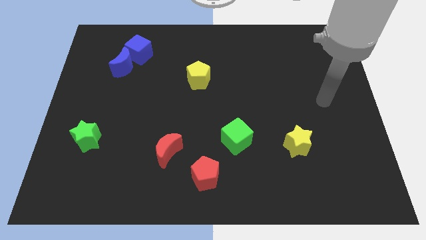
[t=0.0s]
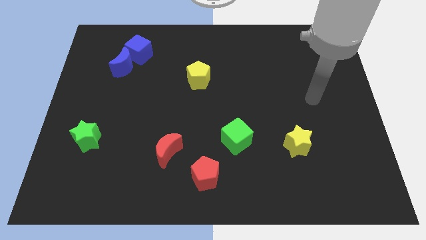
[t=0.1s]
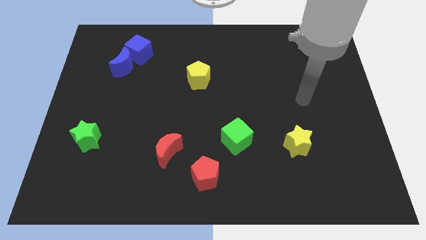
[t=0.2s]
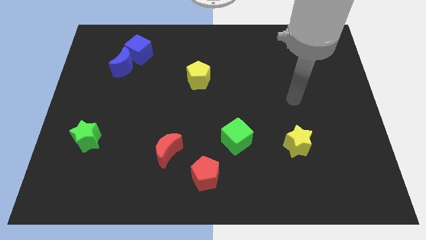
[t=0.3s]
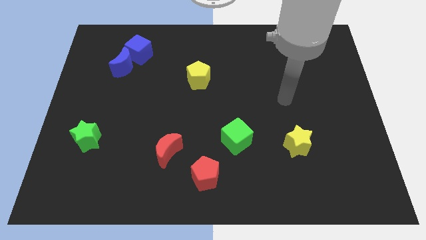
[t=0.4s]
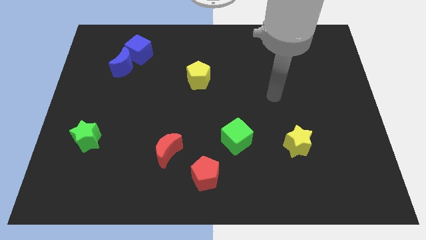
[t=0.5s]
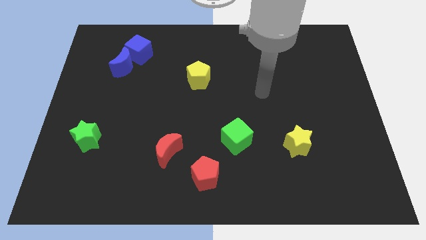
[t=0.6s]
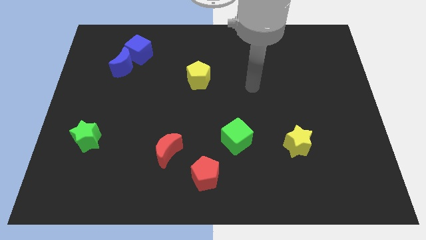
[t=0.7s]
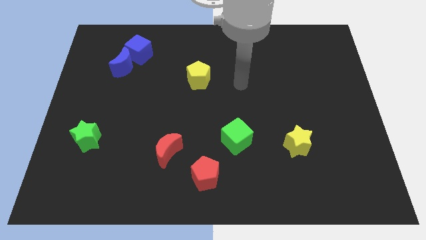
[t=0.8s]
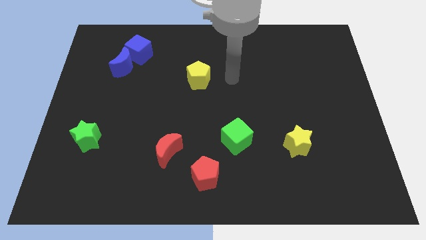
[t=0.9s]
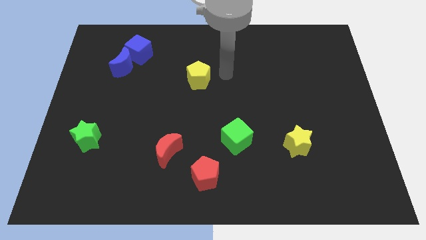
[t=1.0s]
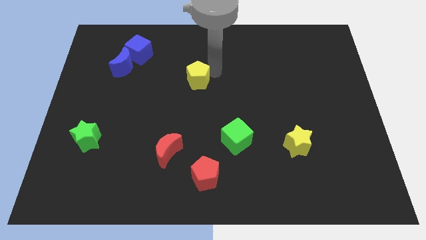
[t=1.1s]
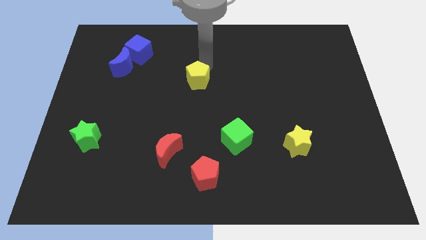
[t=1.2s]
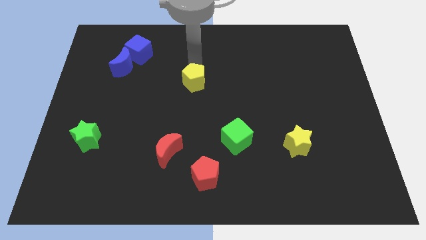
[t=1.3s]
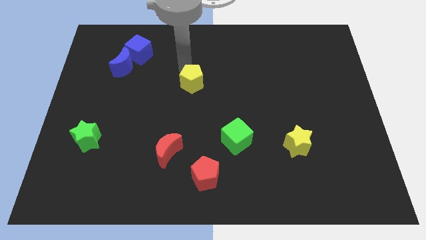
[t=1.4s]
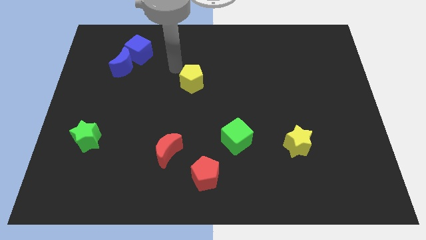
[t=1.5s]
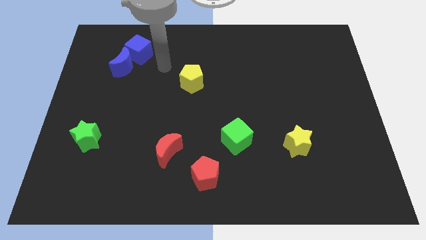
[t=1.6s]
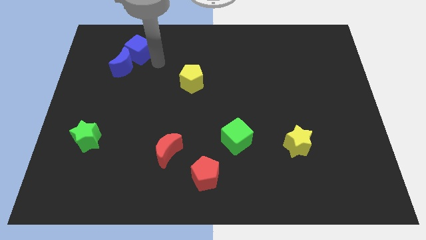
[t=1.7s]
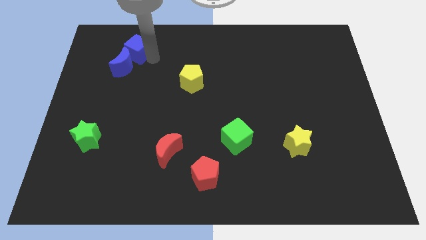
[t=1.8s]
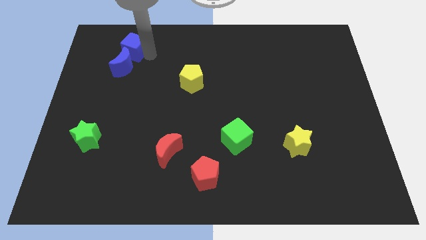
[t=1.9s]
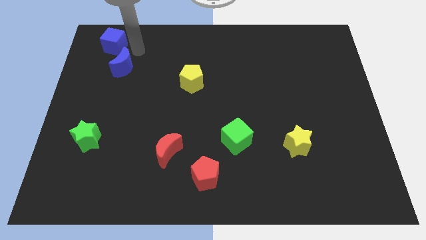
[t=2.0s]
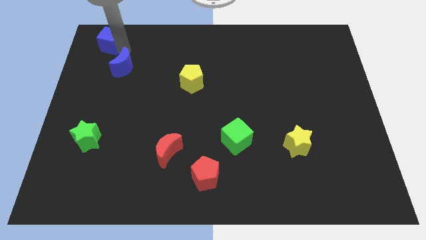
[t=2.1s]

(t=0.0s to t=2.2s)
separate the blue moon from the blue cube

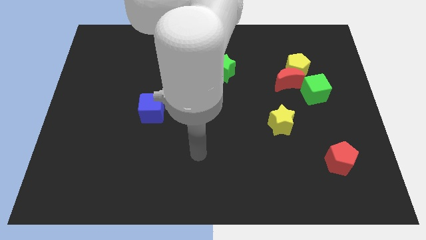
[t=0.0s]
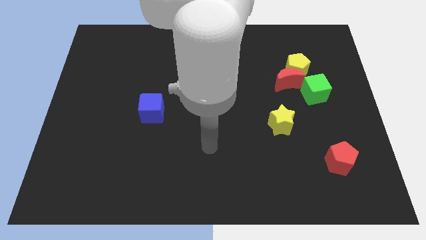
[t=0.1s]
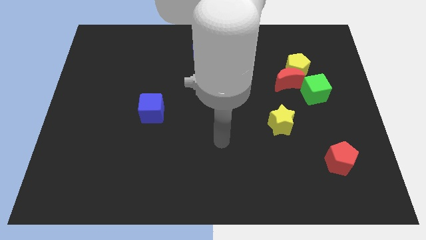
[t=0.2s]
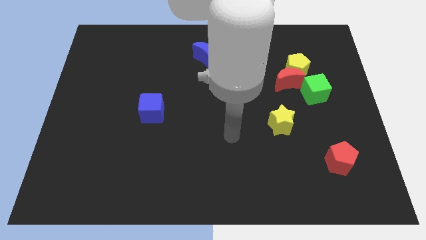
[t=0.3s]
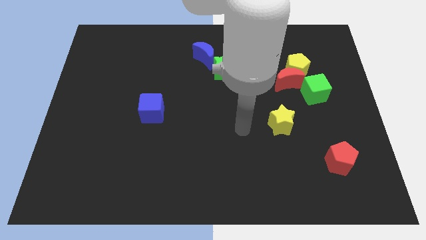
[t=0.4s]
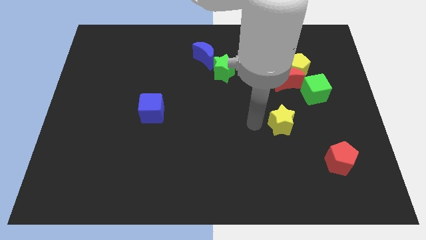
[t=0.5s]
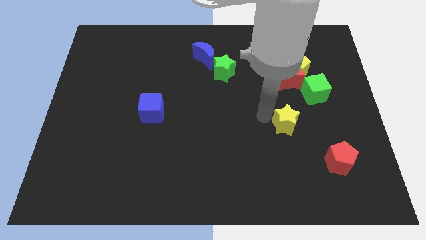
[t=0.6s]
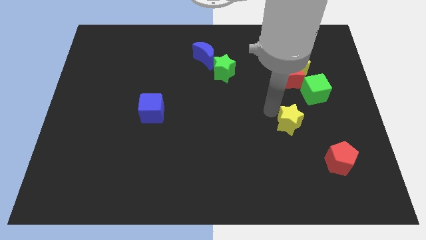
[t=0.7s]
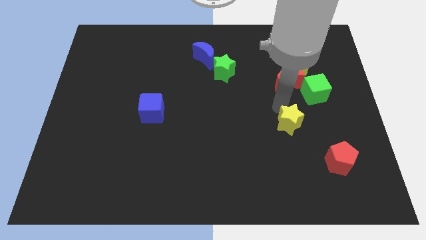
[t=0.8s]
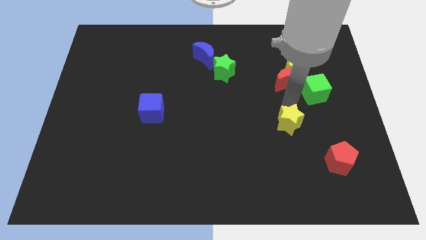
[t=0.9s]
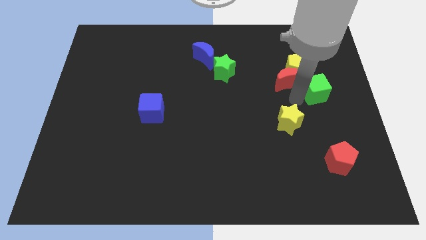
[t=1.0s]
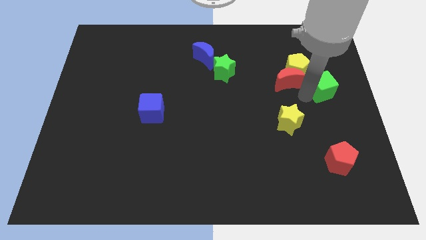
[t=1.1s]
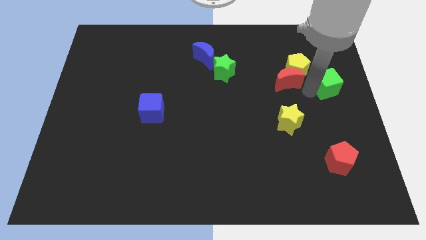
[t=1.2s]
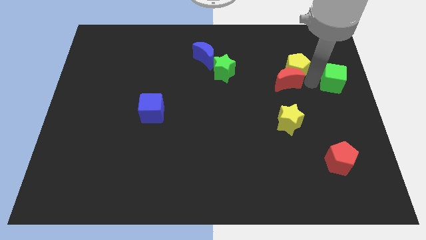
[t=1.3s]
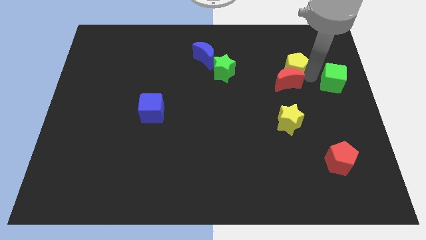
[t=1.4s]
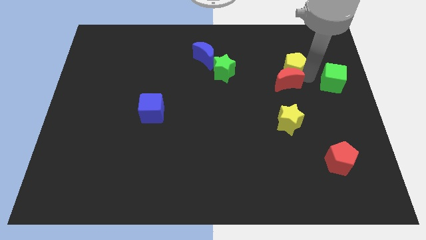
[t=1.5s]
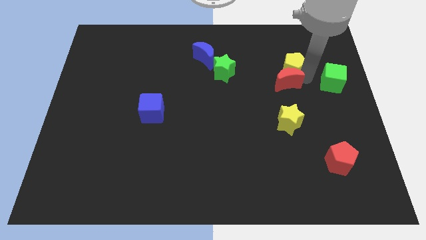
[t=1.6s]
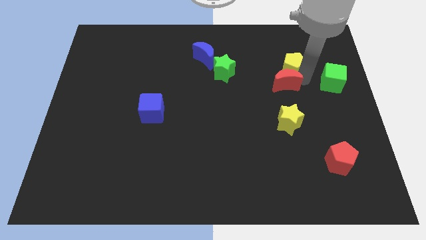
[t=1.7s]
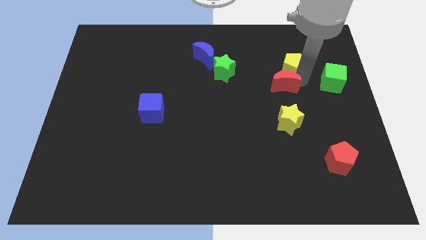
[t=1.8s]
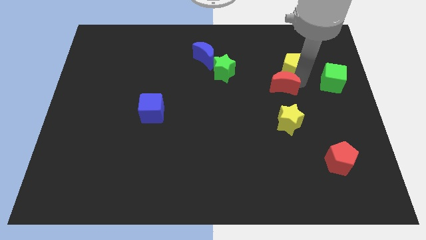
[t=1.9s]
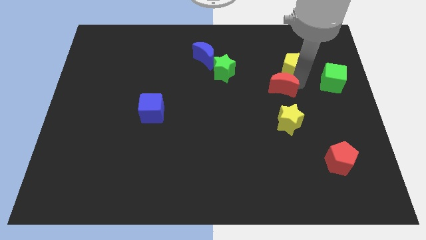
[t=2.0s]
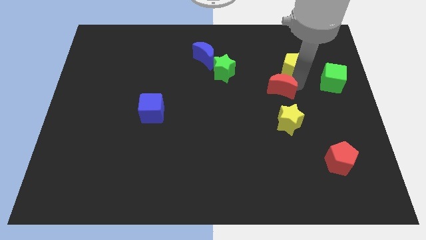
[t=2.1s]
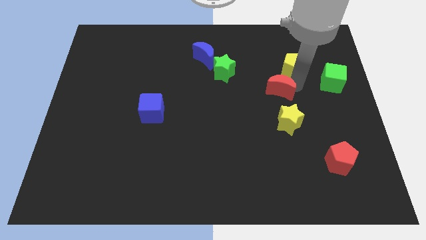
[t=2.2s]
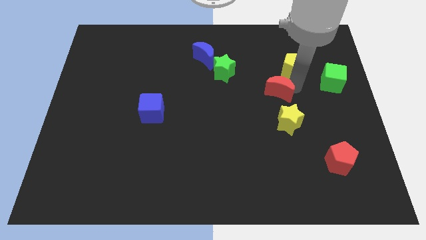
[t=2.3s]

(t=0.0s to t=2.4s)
pull the red moon apart from the yellow pentagon and green cube

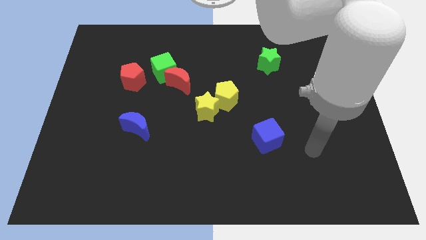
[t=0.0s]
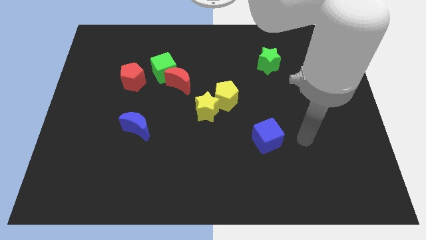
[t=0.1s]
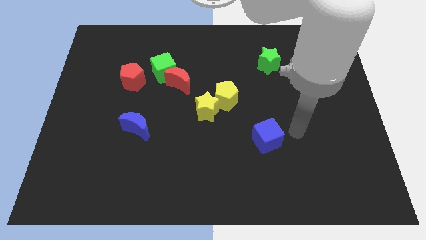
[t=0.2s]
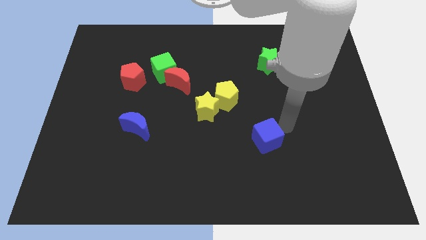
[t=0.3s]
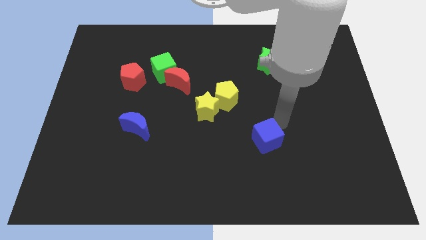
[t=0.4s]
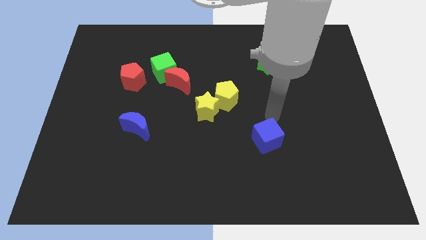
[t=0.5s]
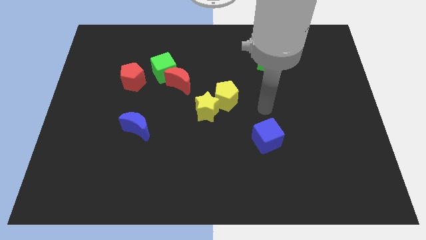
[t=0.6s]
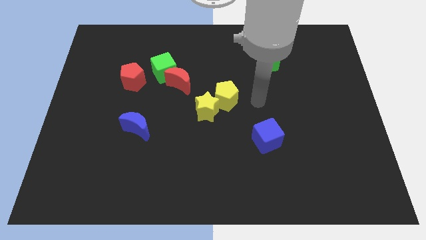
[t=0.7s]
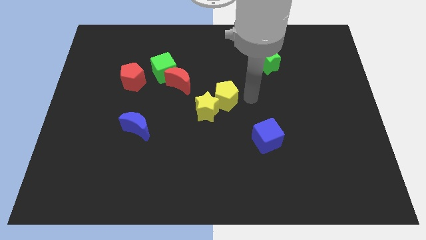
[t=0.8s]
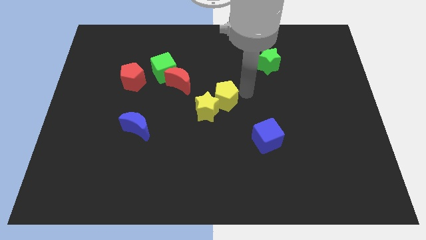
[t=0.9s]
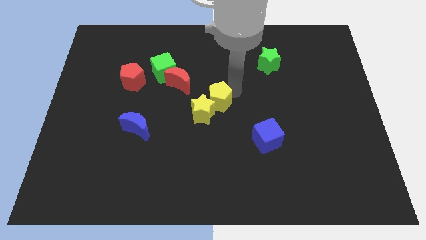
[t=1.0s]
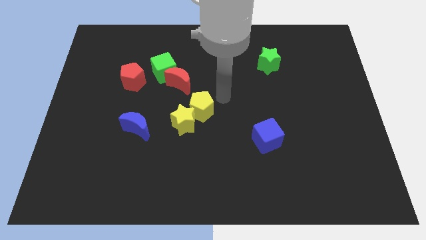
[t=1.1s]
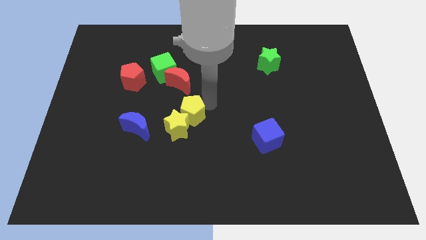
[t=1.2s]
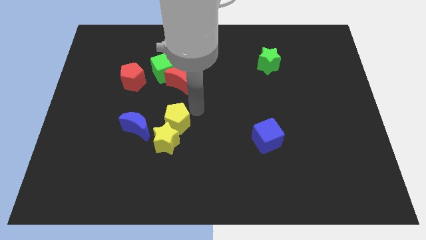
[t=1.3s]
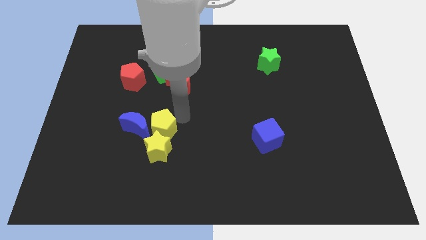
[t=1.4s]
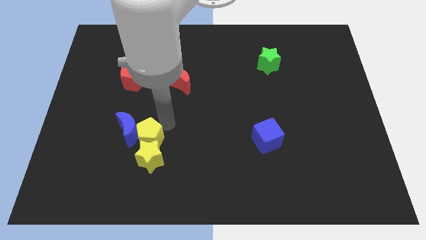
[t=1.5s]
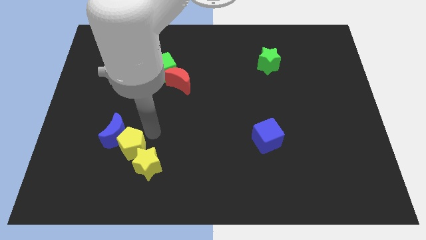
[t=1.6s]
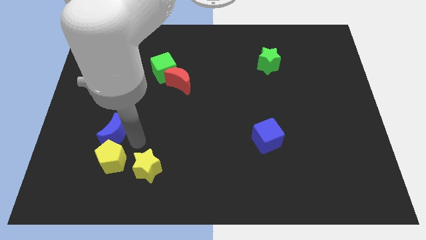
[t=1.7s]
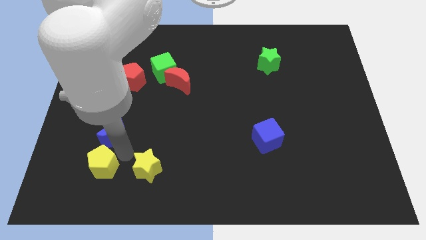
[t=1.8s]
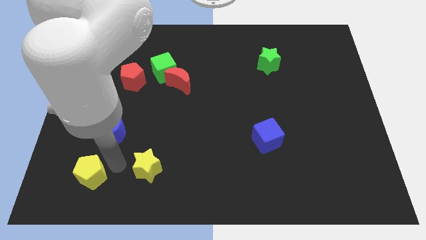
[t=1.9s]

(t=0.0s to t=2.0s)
separate the yellow star from the yellow pentagon

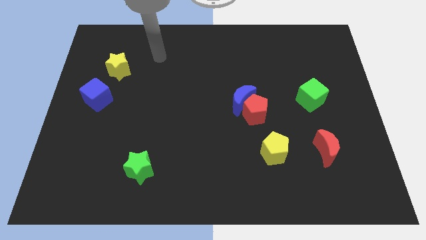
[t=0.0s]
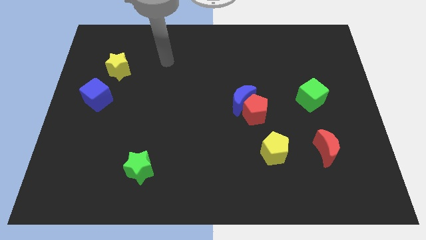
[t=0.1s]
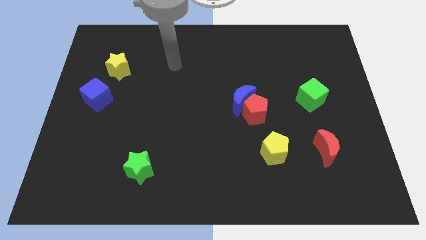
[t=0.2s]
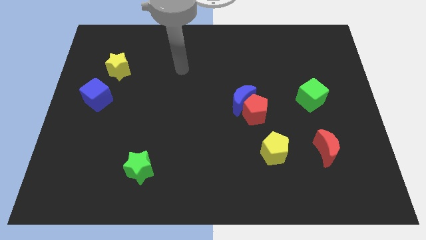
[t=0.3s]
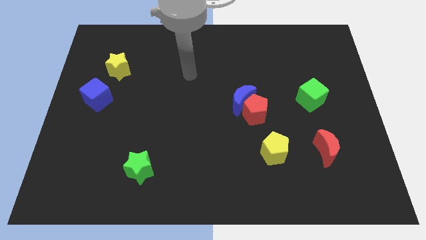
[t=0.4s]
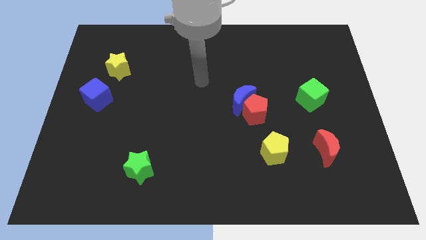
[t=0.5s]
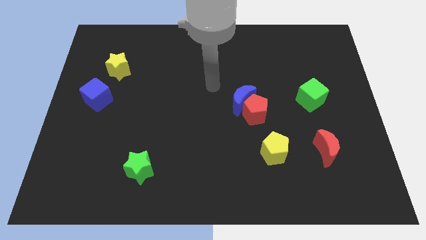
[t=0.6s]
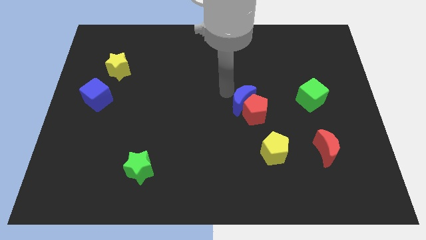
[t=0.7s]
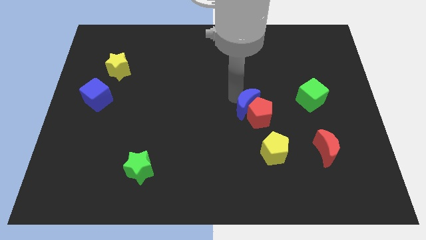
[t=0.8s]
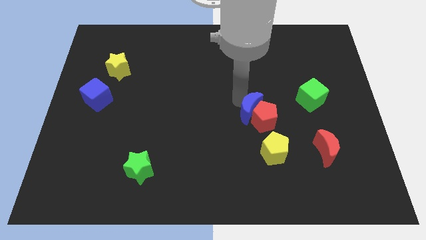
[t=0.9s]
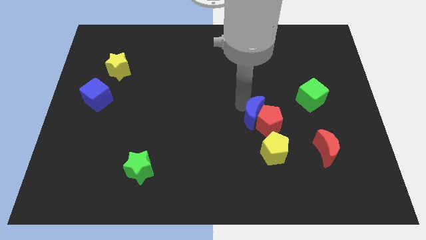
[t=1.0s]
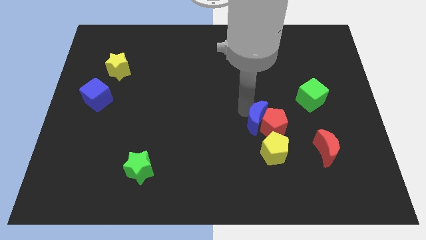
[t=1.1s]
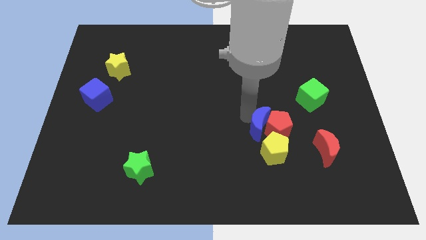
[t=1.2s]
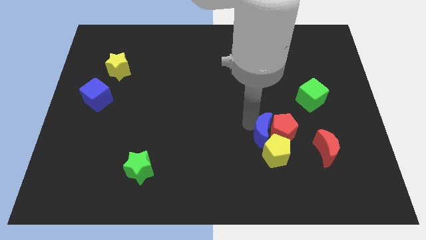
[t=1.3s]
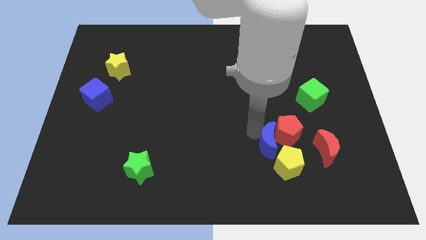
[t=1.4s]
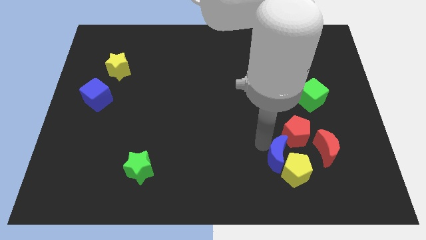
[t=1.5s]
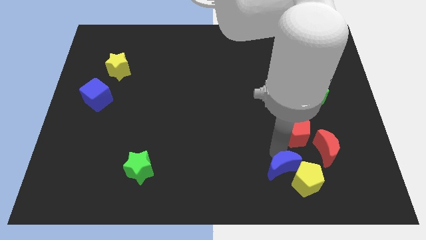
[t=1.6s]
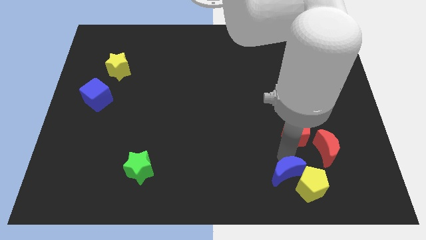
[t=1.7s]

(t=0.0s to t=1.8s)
separate the red pentagon from the blue moon

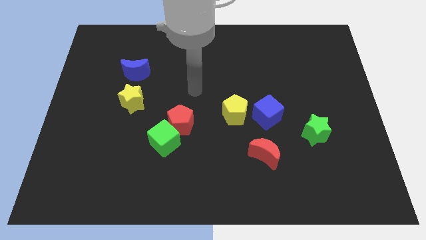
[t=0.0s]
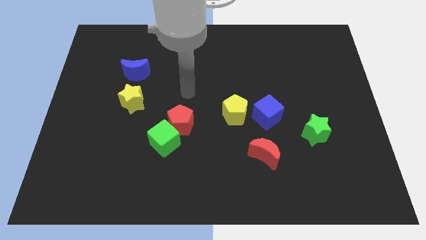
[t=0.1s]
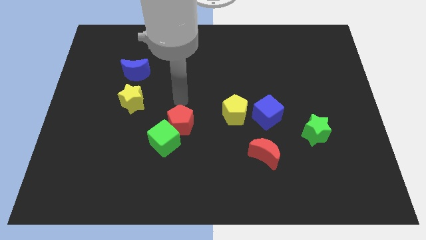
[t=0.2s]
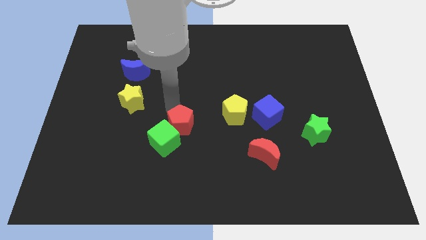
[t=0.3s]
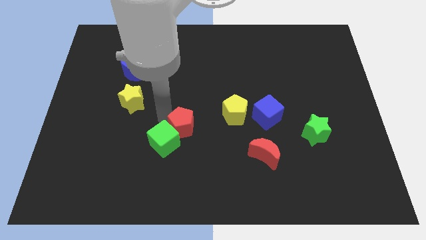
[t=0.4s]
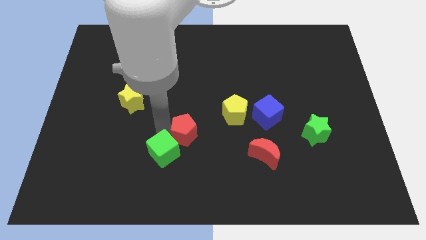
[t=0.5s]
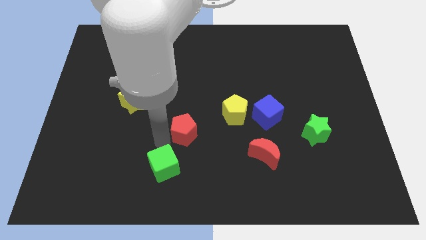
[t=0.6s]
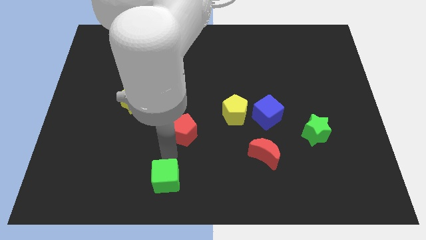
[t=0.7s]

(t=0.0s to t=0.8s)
pull the red pentagon apart from the green cube
